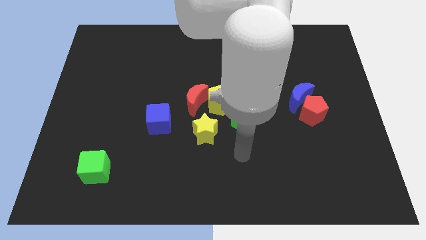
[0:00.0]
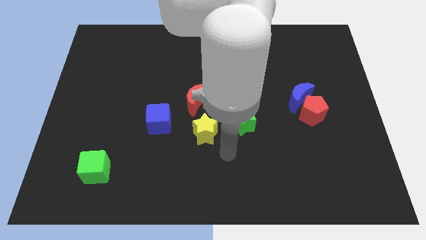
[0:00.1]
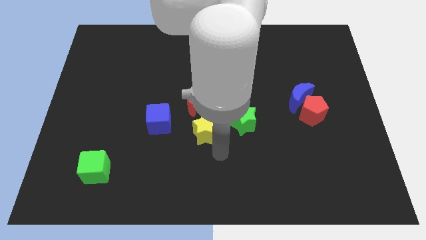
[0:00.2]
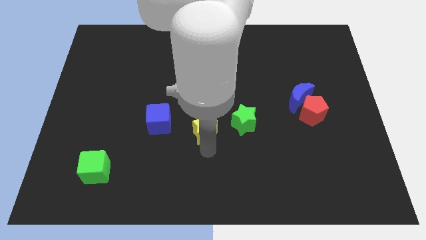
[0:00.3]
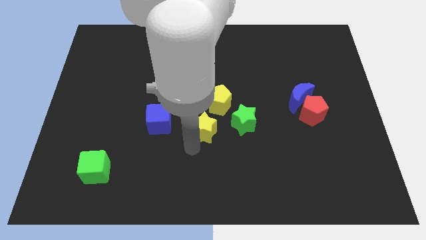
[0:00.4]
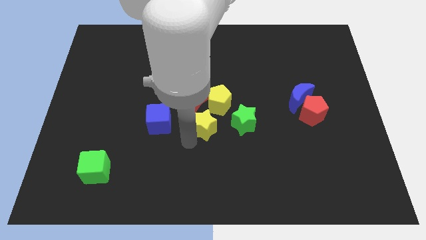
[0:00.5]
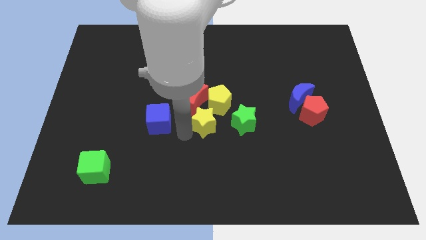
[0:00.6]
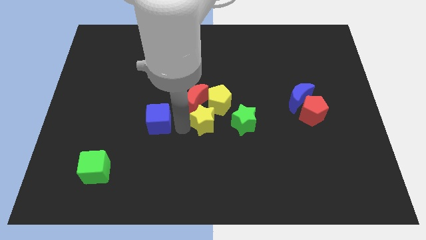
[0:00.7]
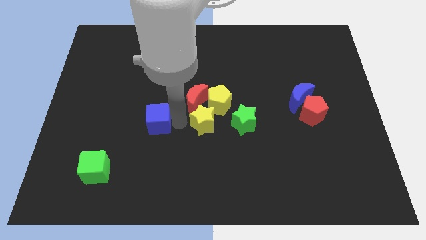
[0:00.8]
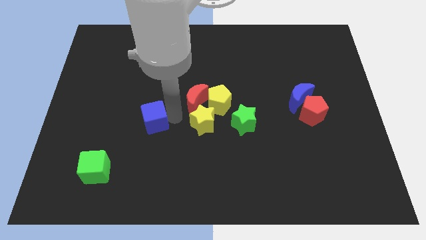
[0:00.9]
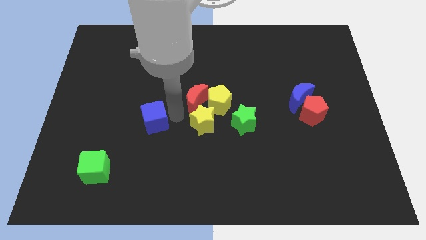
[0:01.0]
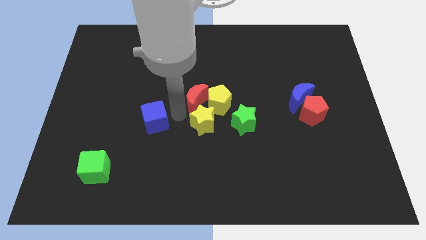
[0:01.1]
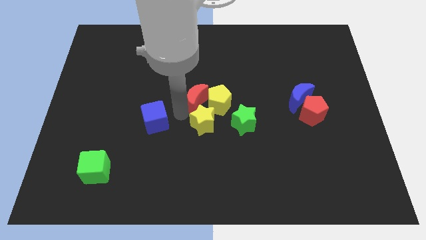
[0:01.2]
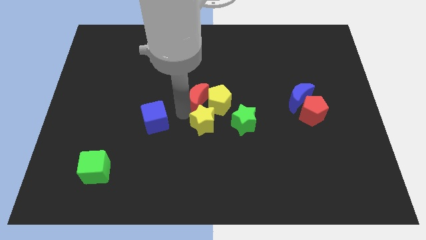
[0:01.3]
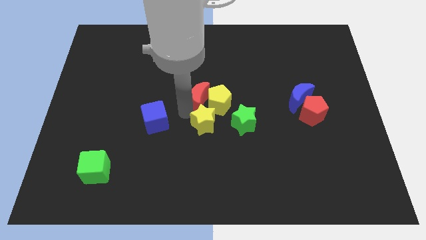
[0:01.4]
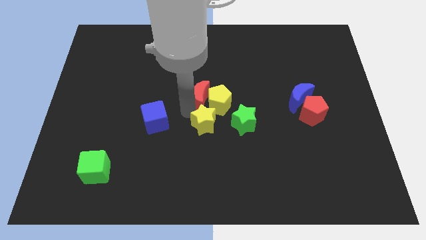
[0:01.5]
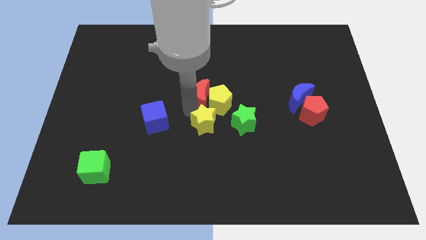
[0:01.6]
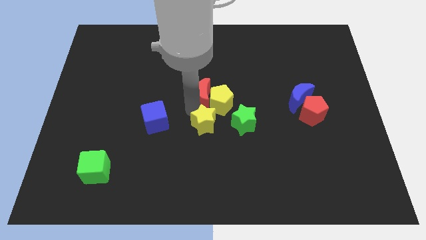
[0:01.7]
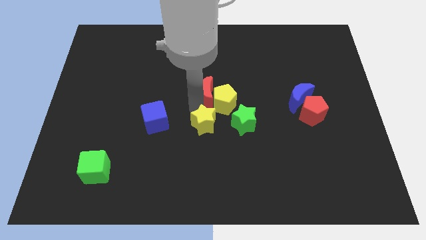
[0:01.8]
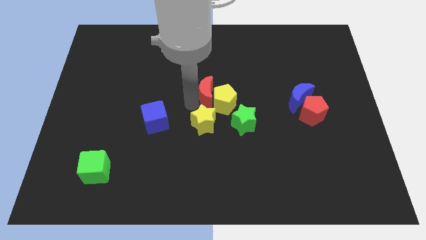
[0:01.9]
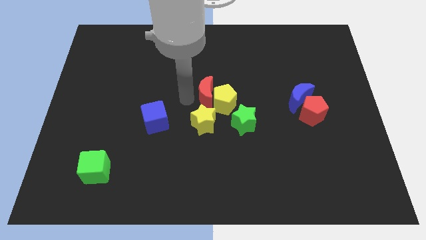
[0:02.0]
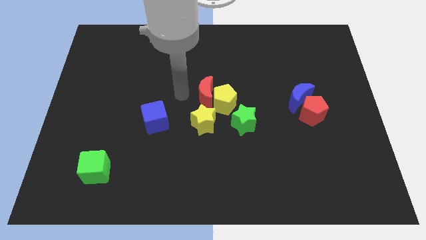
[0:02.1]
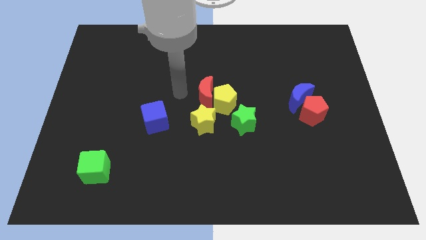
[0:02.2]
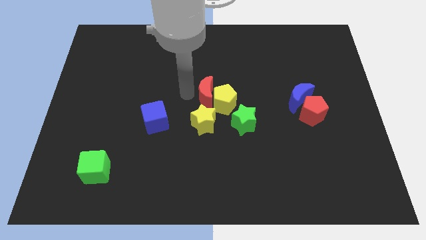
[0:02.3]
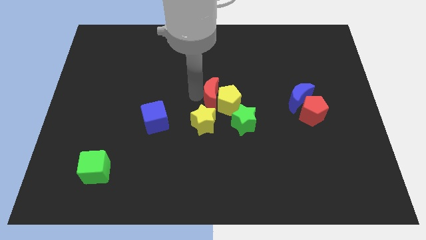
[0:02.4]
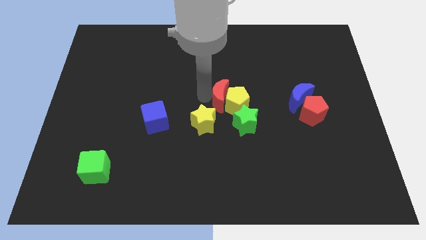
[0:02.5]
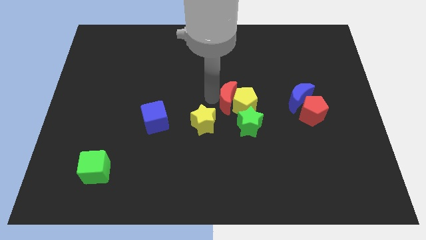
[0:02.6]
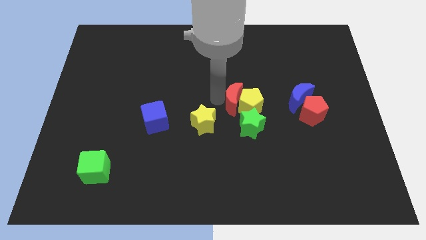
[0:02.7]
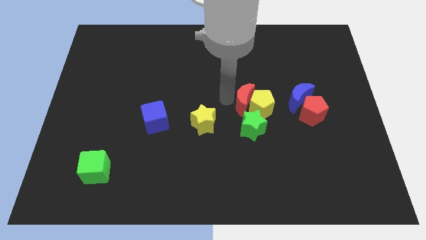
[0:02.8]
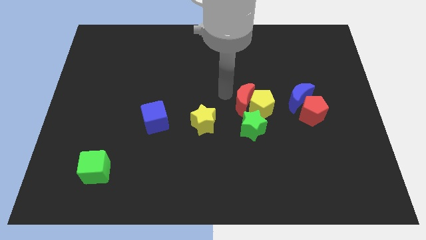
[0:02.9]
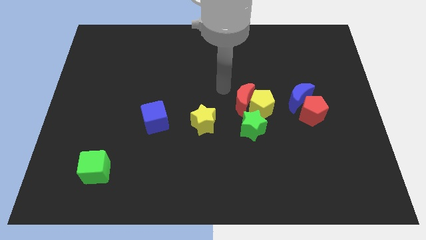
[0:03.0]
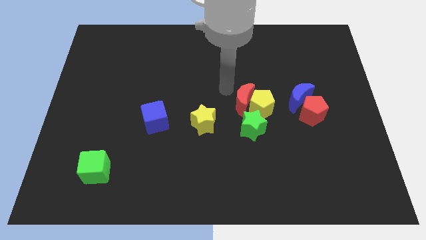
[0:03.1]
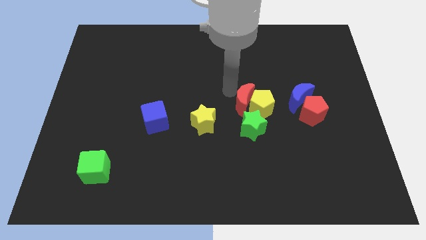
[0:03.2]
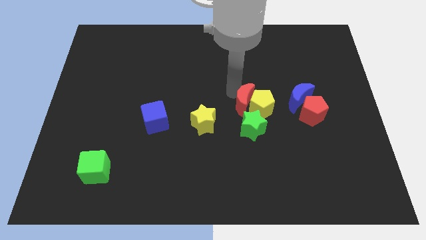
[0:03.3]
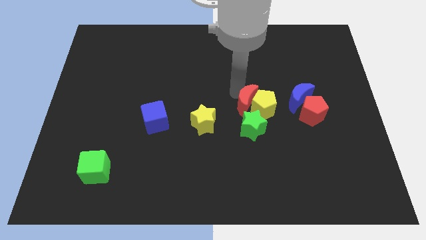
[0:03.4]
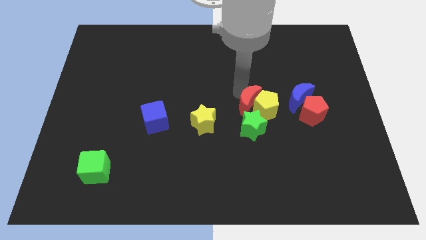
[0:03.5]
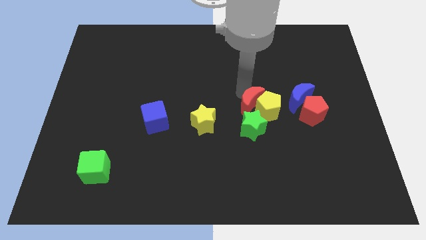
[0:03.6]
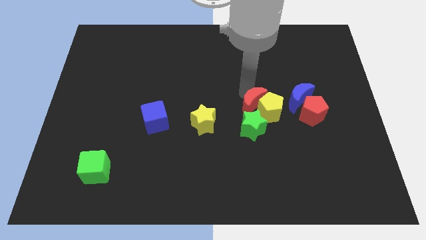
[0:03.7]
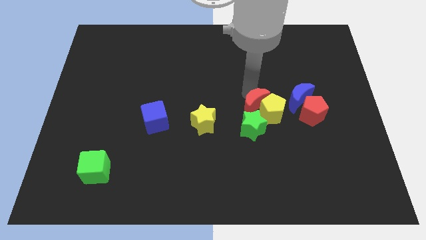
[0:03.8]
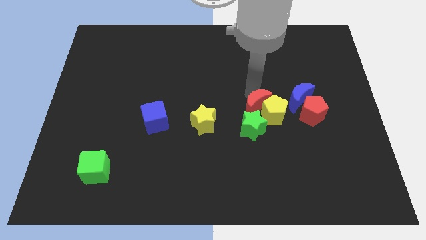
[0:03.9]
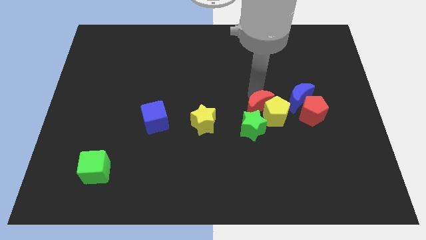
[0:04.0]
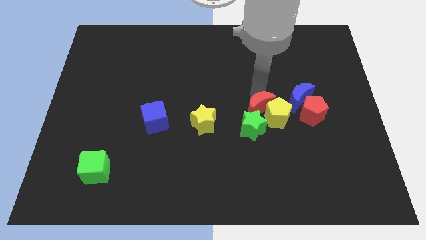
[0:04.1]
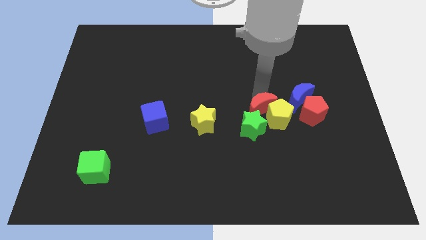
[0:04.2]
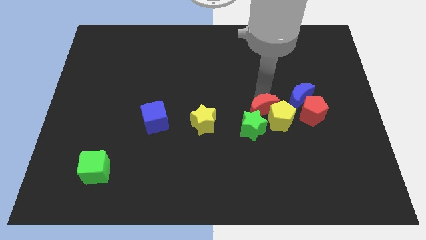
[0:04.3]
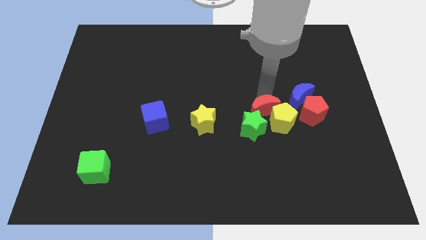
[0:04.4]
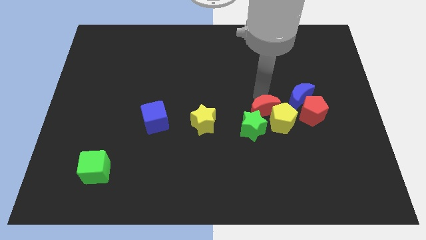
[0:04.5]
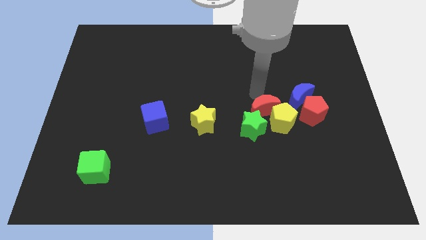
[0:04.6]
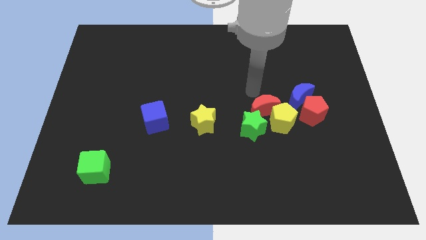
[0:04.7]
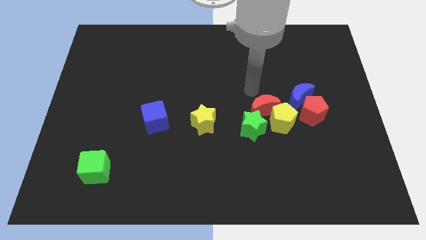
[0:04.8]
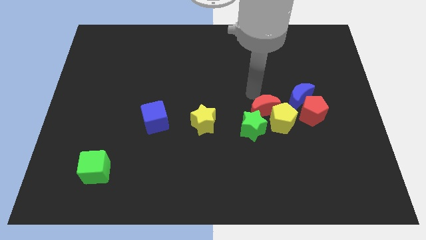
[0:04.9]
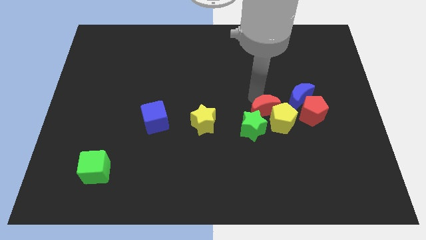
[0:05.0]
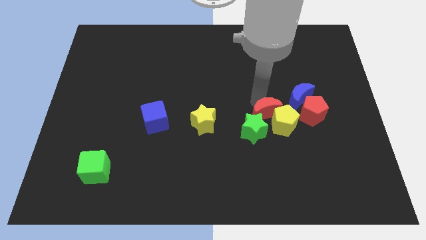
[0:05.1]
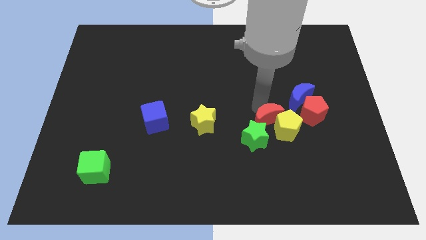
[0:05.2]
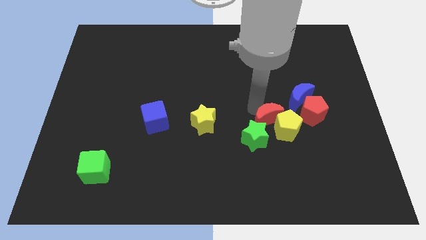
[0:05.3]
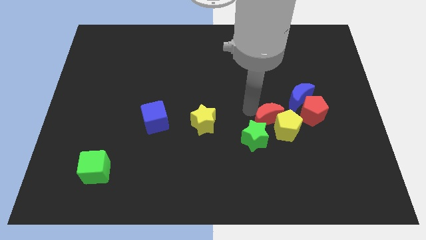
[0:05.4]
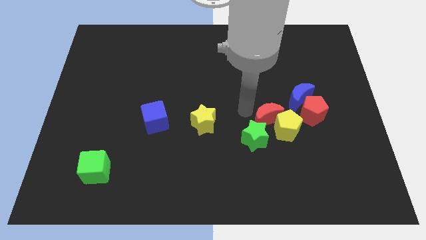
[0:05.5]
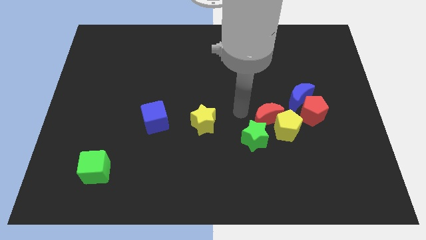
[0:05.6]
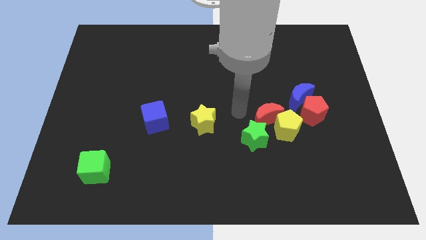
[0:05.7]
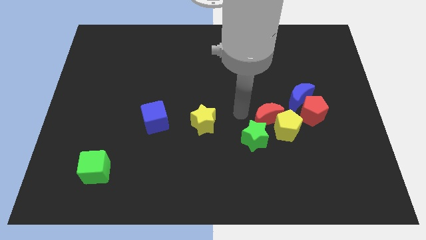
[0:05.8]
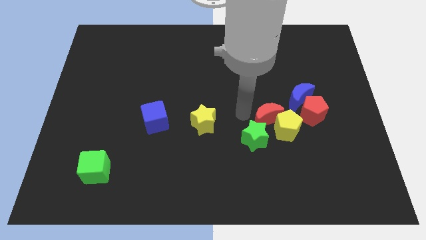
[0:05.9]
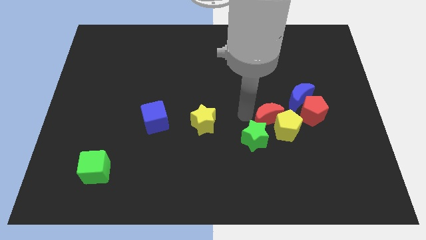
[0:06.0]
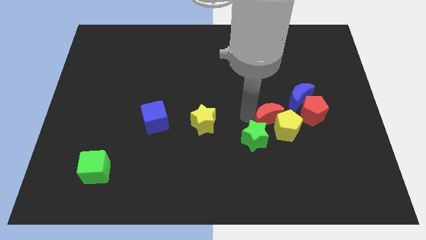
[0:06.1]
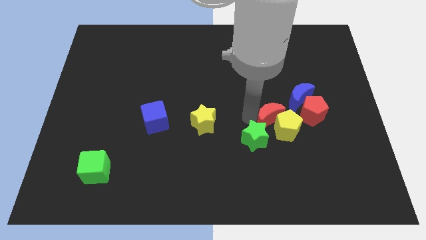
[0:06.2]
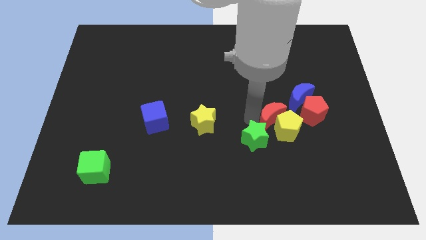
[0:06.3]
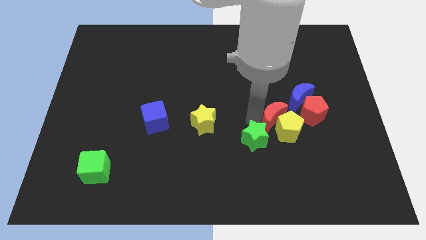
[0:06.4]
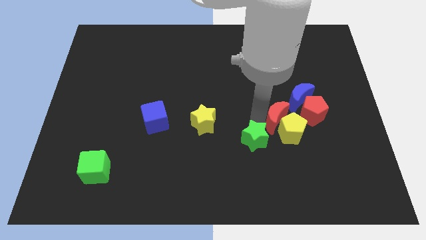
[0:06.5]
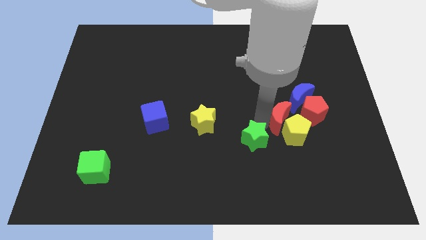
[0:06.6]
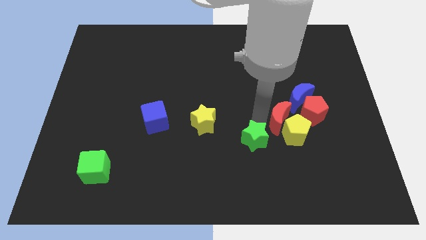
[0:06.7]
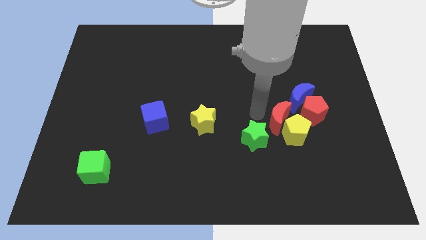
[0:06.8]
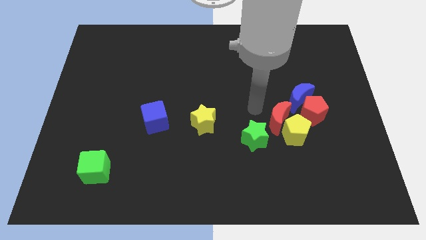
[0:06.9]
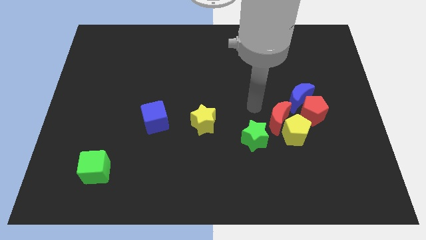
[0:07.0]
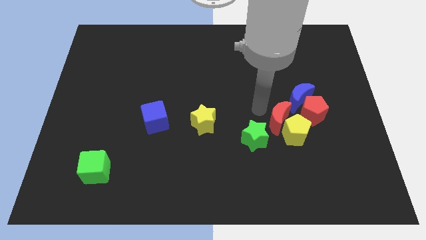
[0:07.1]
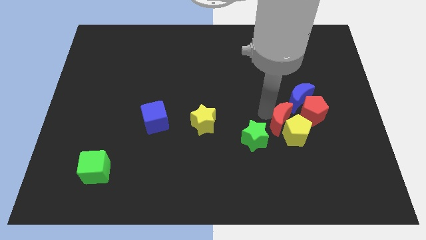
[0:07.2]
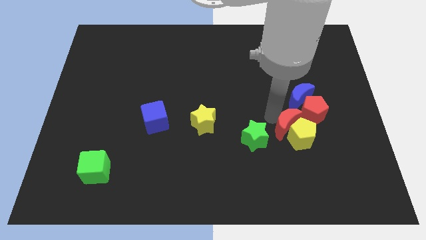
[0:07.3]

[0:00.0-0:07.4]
move the red moon to the bottom of the blue moon

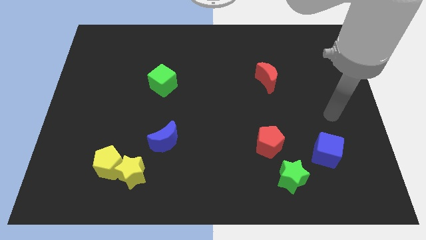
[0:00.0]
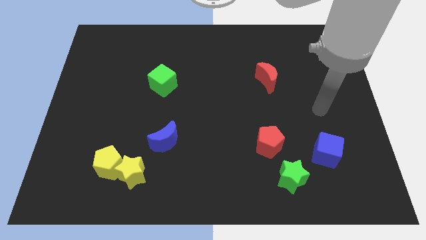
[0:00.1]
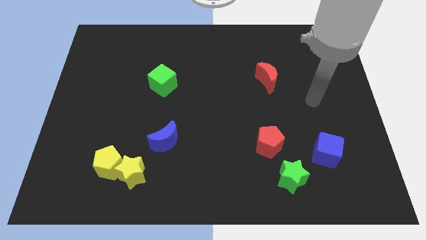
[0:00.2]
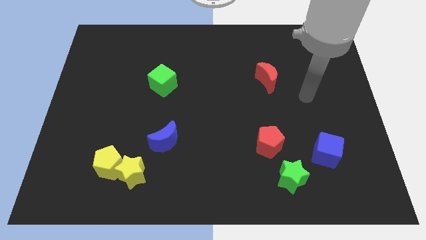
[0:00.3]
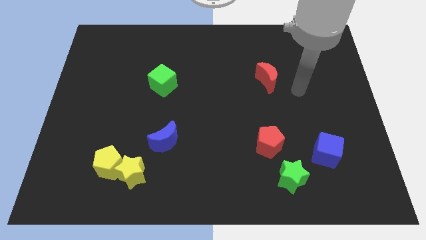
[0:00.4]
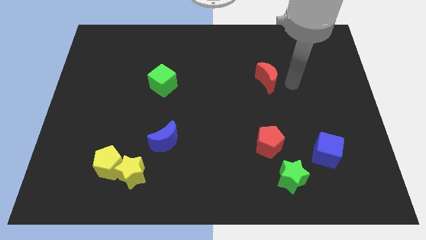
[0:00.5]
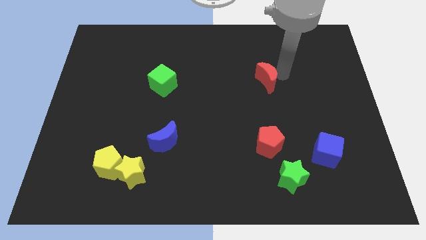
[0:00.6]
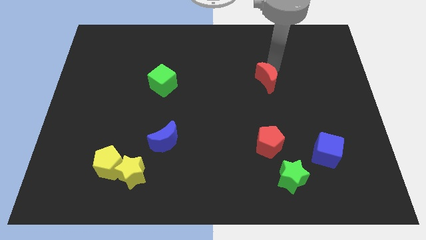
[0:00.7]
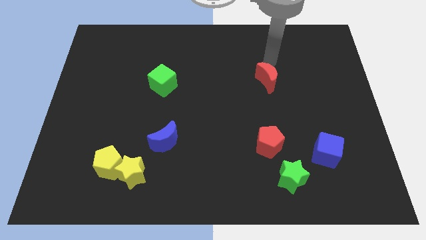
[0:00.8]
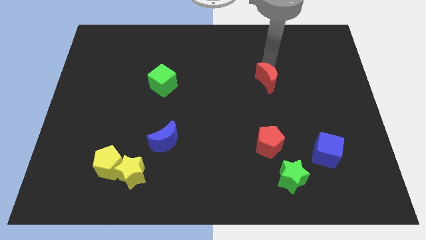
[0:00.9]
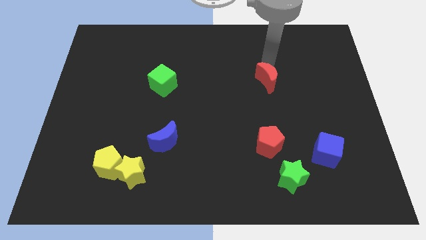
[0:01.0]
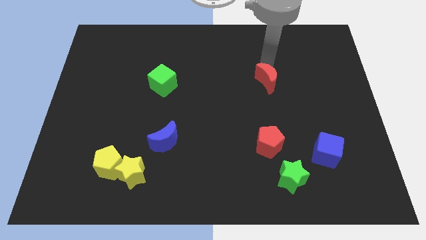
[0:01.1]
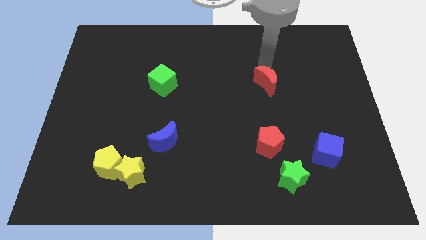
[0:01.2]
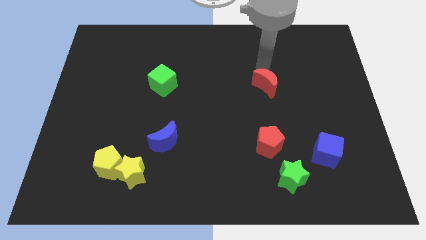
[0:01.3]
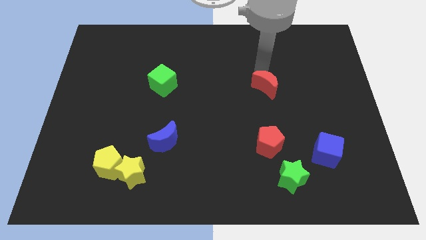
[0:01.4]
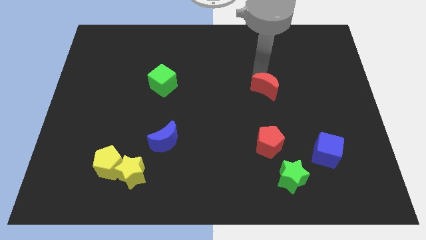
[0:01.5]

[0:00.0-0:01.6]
put the red moon to the top side of the red pentagon
